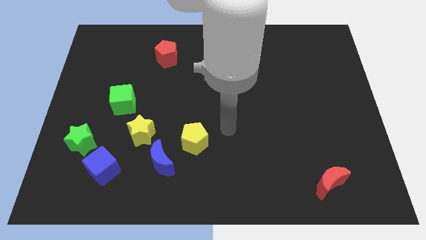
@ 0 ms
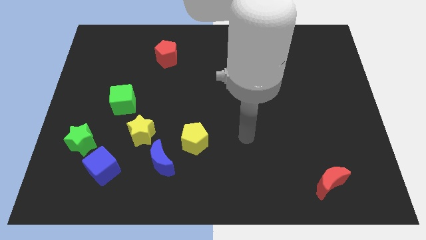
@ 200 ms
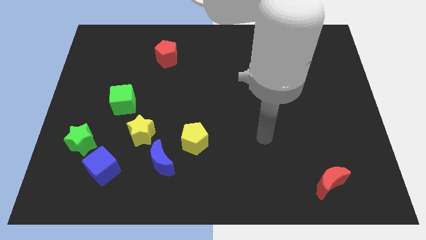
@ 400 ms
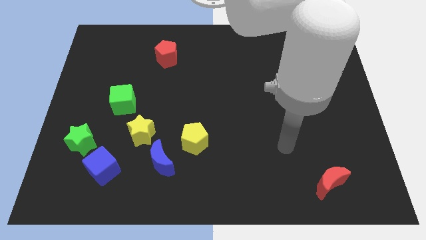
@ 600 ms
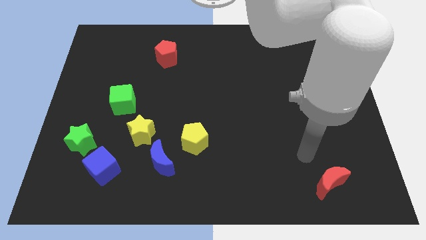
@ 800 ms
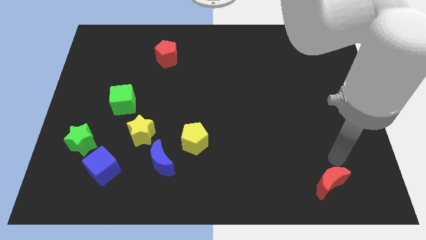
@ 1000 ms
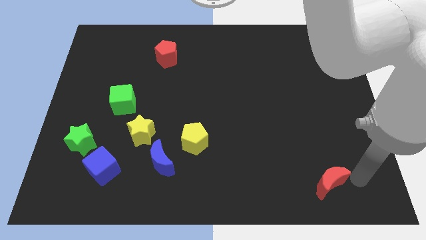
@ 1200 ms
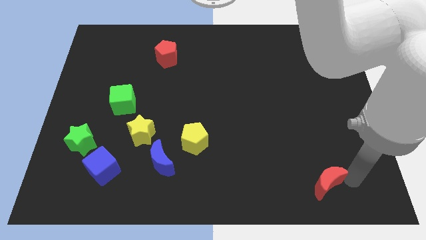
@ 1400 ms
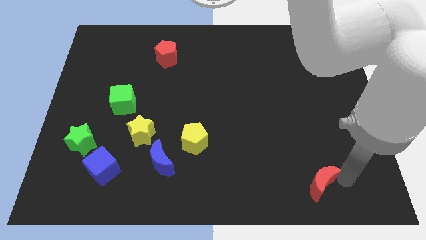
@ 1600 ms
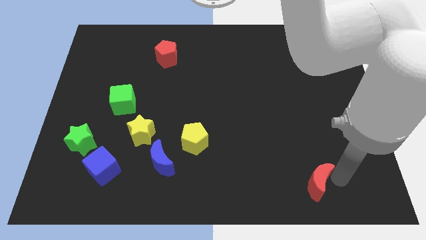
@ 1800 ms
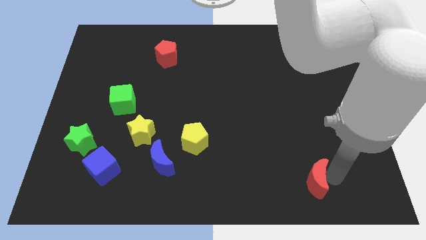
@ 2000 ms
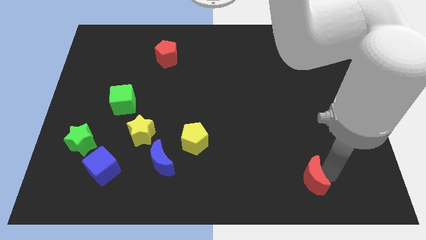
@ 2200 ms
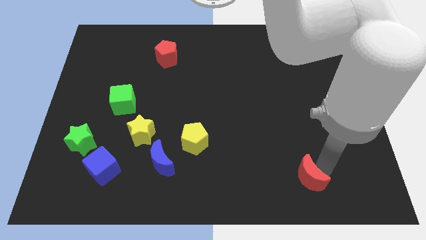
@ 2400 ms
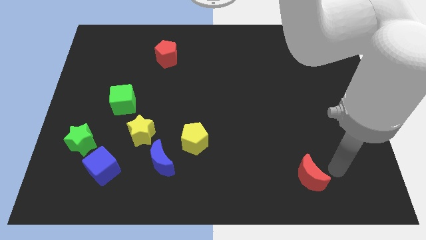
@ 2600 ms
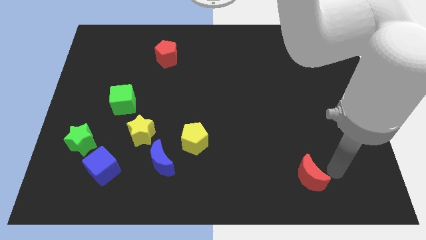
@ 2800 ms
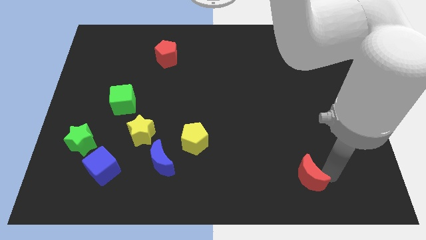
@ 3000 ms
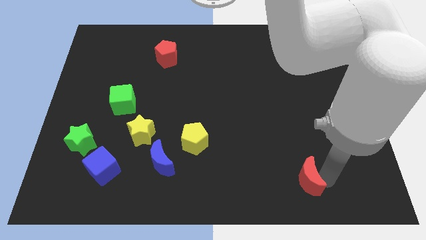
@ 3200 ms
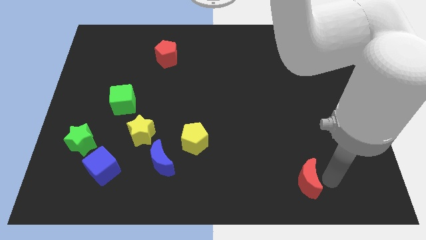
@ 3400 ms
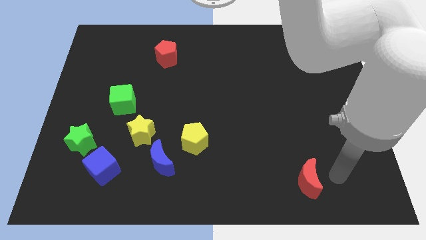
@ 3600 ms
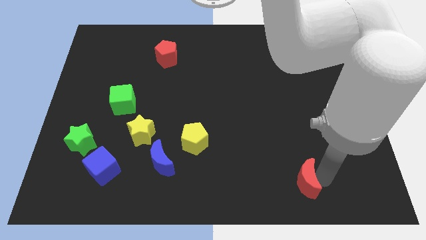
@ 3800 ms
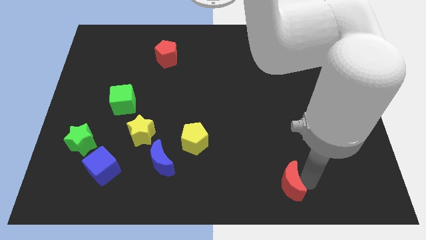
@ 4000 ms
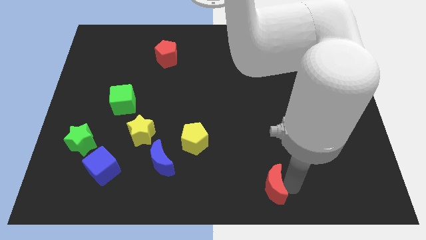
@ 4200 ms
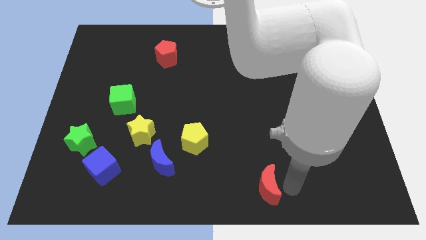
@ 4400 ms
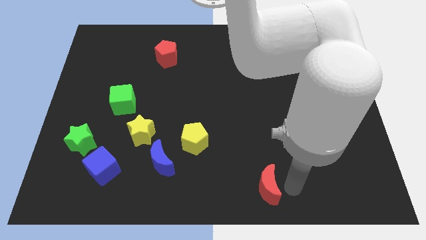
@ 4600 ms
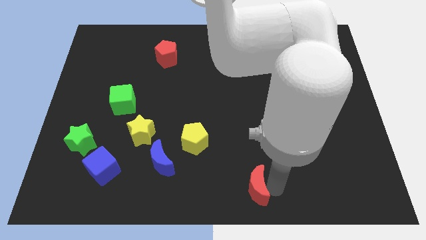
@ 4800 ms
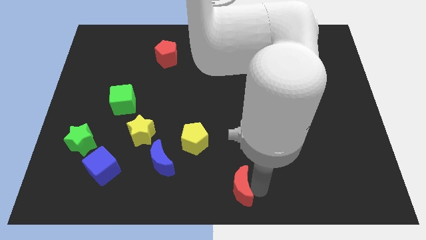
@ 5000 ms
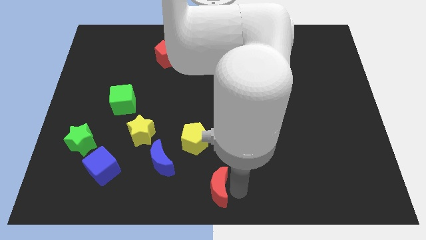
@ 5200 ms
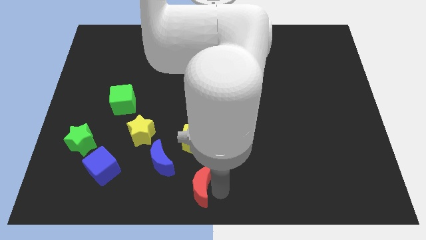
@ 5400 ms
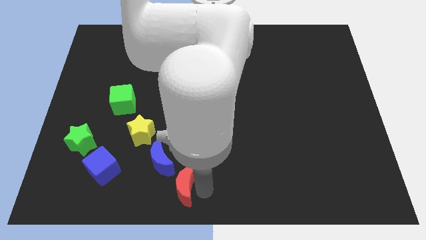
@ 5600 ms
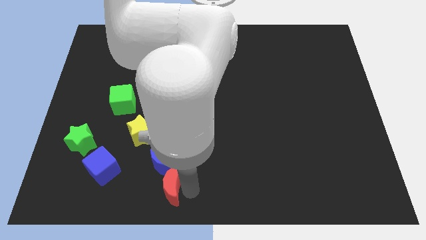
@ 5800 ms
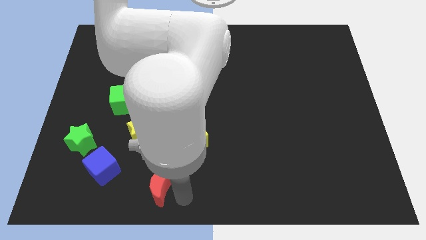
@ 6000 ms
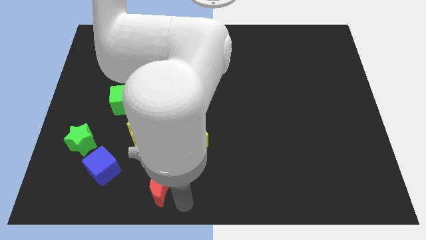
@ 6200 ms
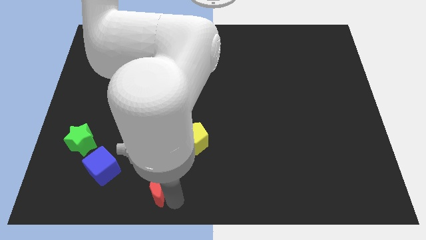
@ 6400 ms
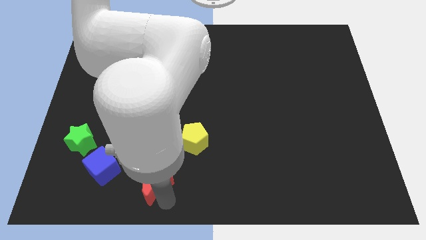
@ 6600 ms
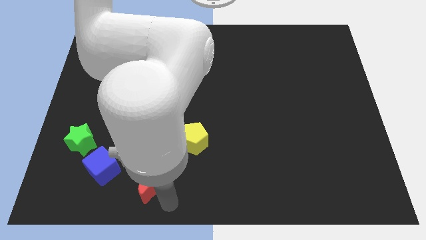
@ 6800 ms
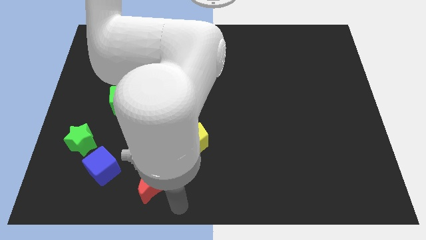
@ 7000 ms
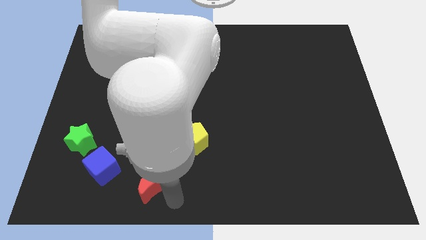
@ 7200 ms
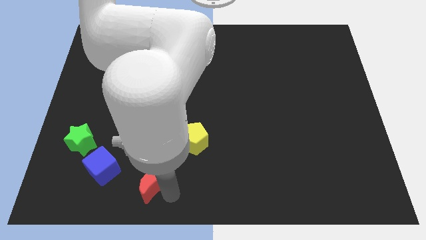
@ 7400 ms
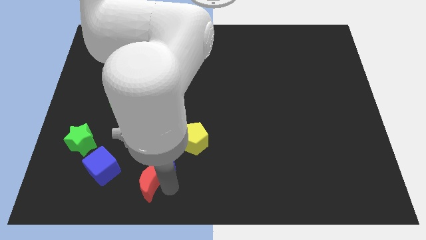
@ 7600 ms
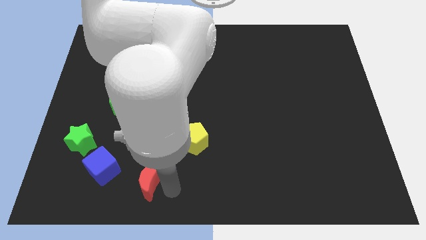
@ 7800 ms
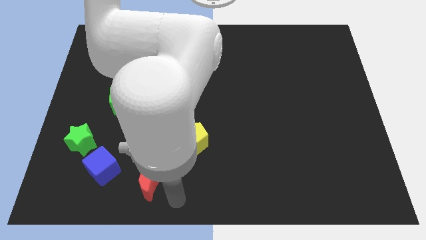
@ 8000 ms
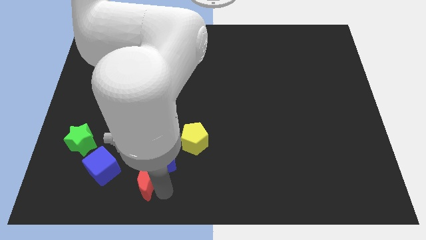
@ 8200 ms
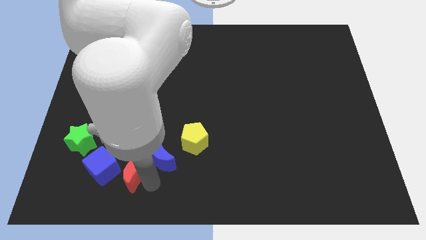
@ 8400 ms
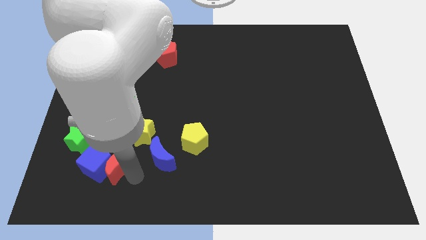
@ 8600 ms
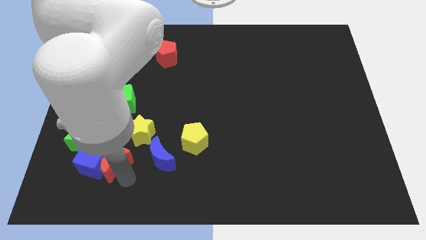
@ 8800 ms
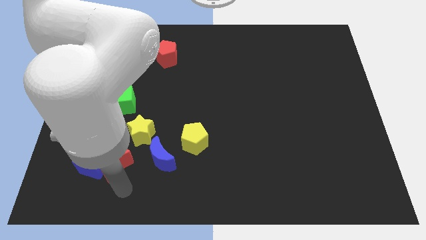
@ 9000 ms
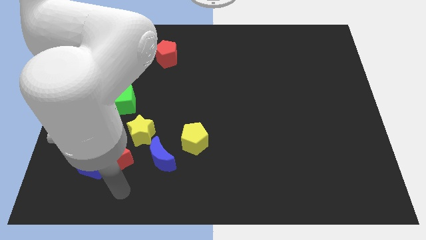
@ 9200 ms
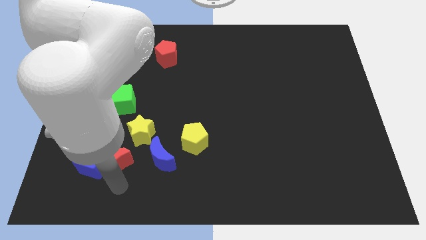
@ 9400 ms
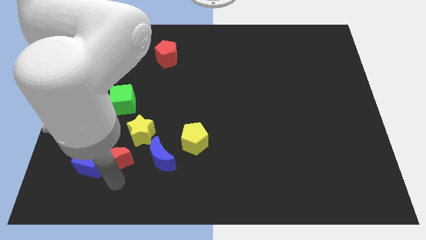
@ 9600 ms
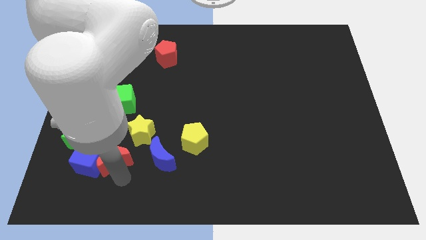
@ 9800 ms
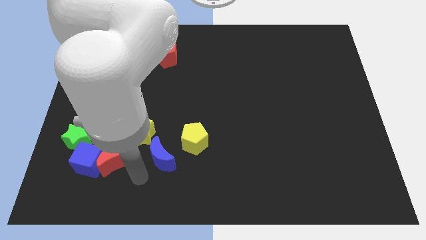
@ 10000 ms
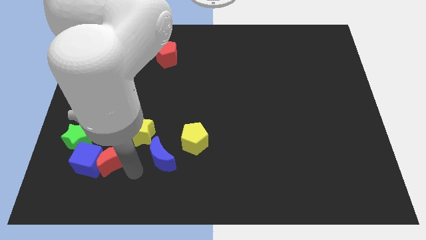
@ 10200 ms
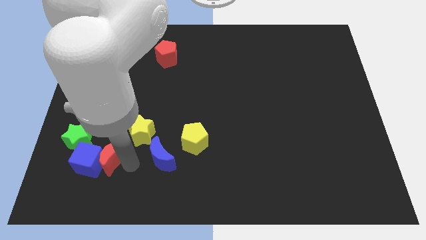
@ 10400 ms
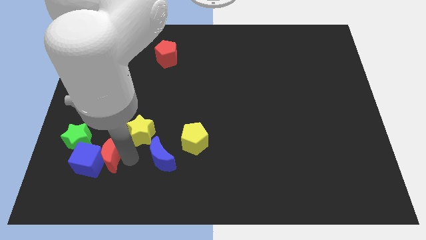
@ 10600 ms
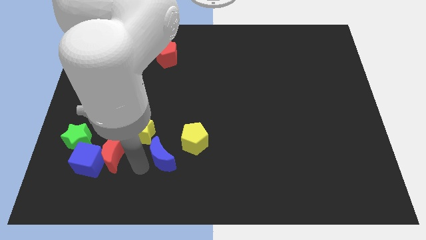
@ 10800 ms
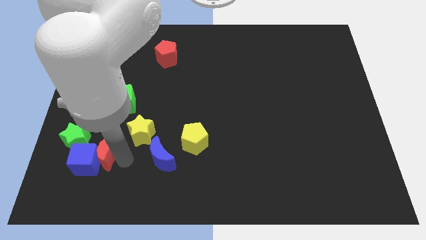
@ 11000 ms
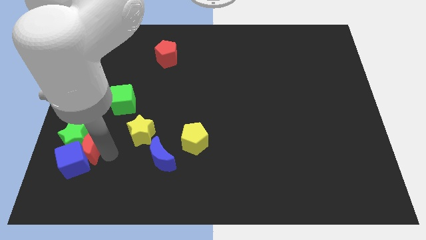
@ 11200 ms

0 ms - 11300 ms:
move the red moon to the green star

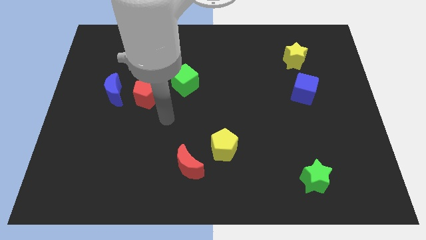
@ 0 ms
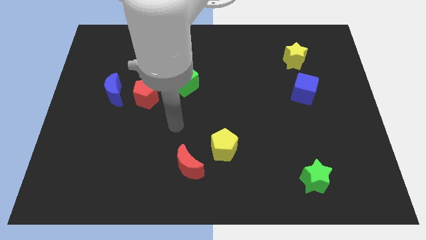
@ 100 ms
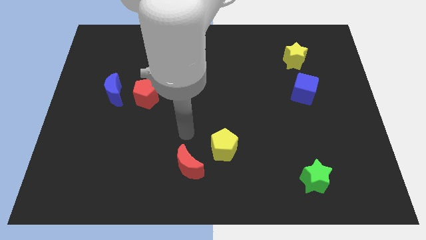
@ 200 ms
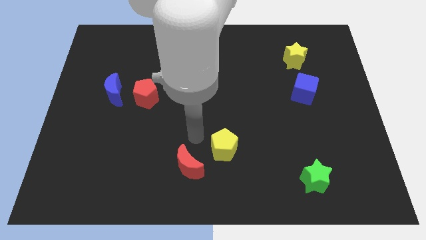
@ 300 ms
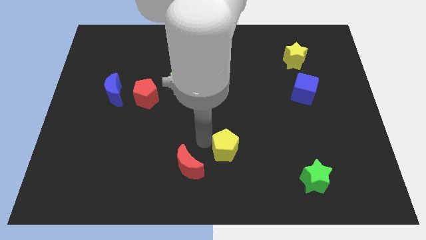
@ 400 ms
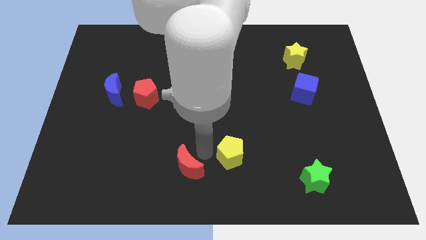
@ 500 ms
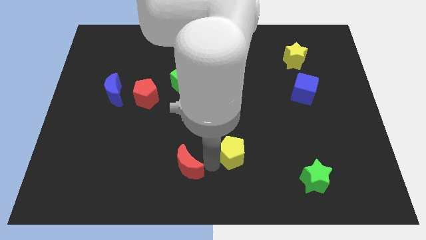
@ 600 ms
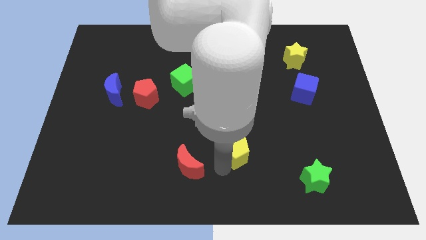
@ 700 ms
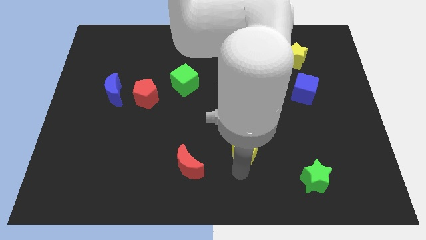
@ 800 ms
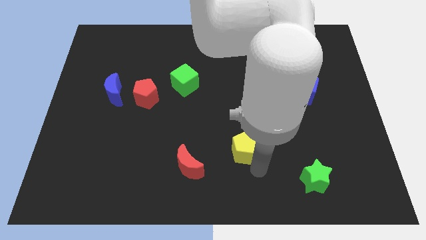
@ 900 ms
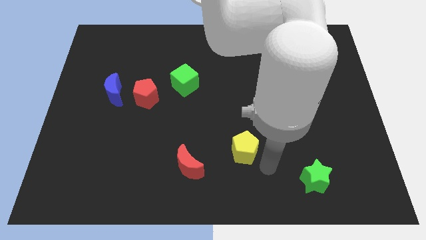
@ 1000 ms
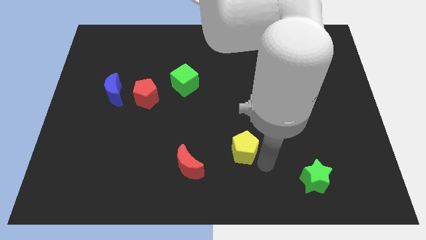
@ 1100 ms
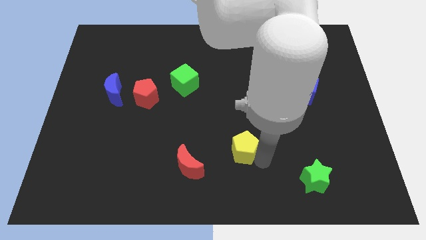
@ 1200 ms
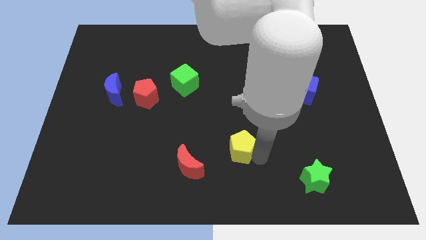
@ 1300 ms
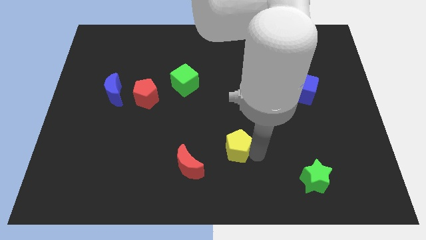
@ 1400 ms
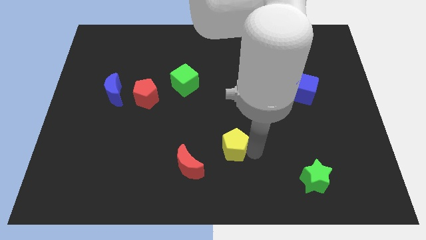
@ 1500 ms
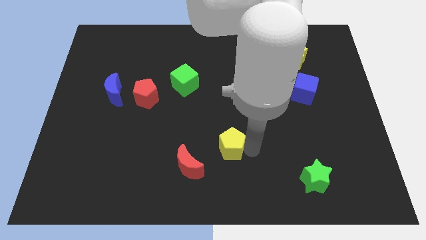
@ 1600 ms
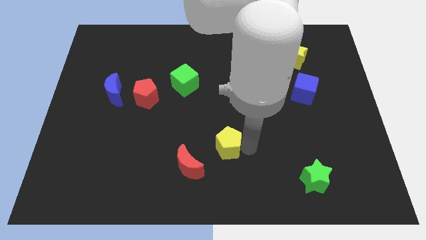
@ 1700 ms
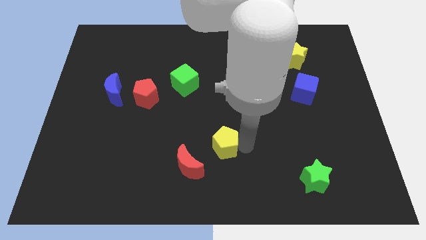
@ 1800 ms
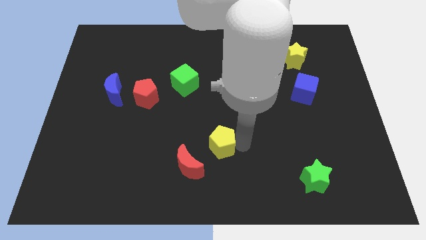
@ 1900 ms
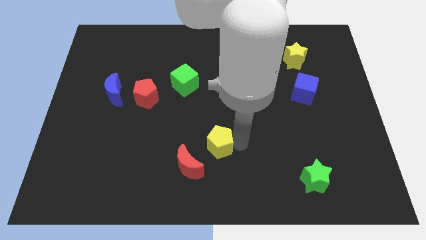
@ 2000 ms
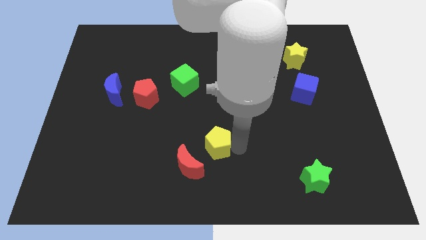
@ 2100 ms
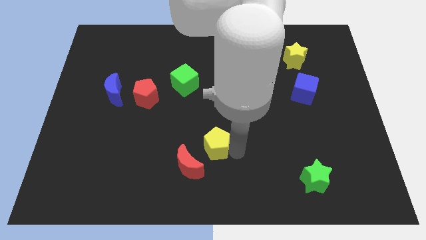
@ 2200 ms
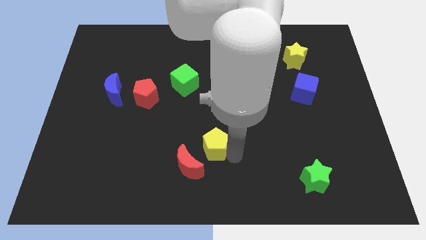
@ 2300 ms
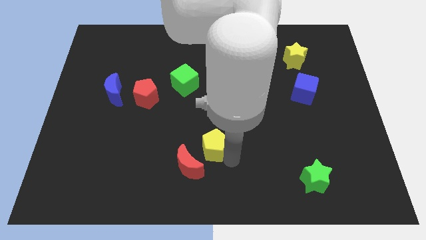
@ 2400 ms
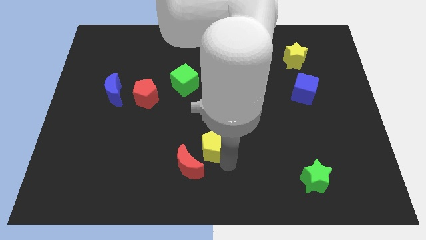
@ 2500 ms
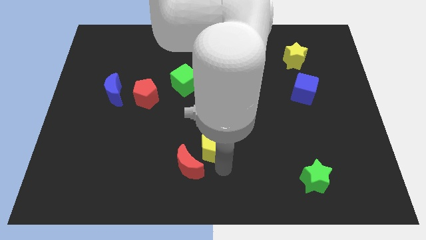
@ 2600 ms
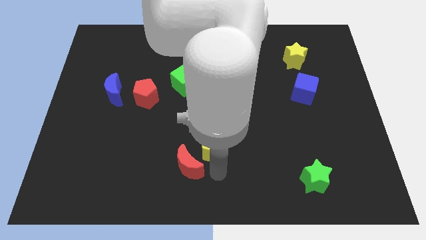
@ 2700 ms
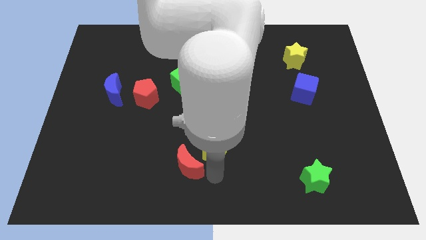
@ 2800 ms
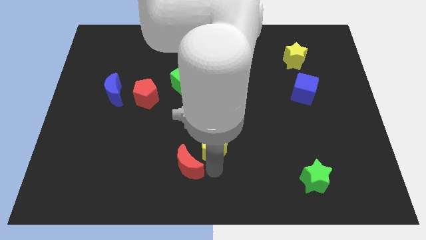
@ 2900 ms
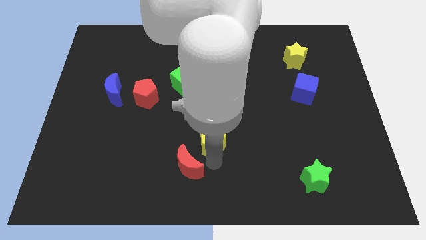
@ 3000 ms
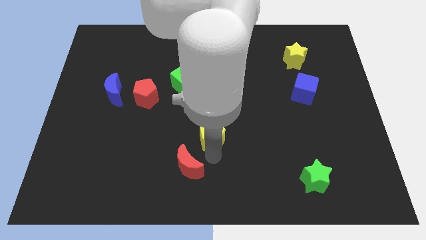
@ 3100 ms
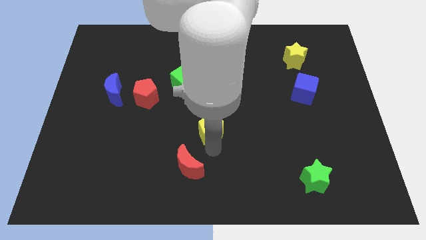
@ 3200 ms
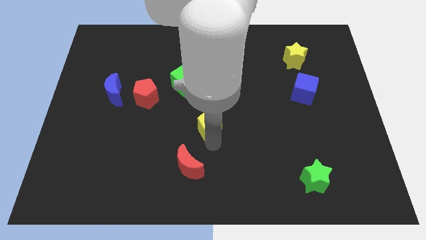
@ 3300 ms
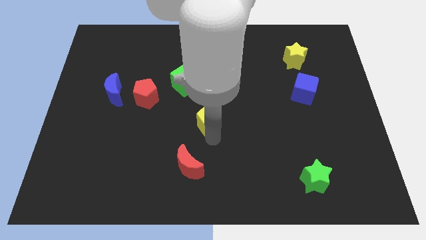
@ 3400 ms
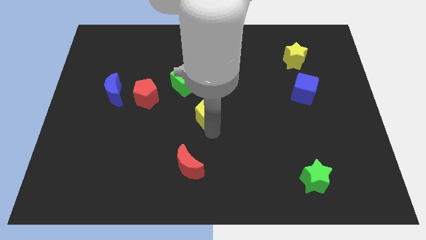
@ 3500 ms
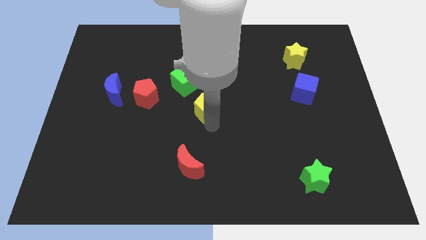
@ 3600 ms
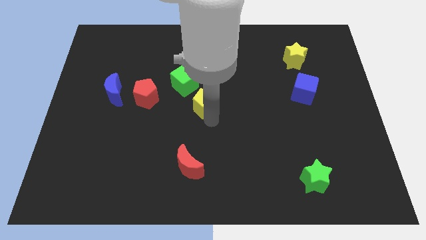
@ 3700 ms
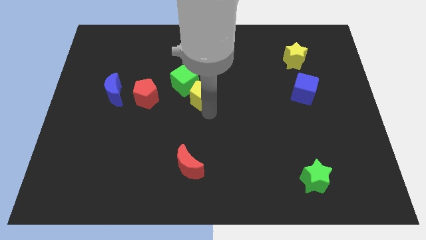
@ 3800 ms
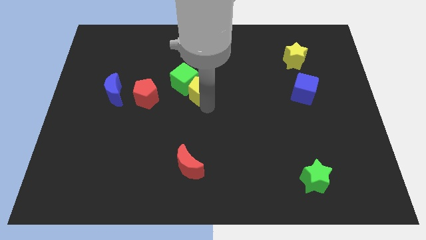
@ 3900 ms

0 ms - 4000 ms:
push the yellow pentagon to the green cube
